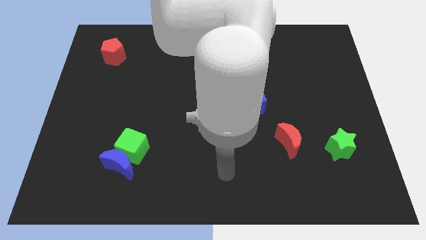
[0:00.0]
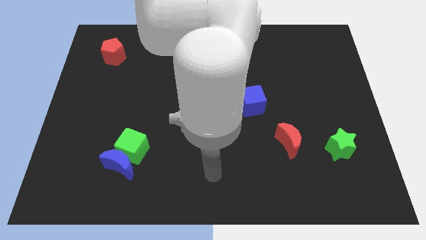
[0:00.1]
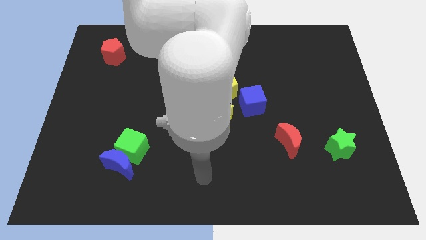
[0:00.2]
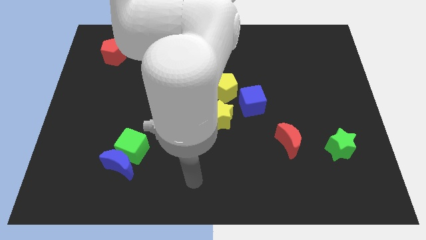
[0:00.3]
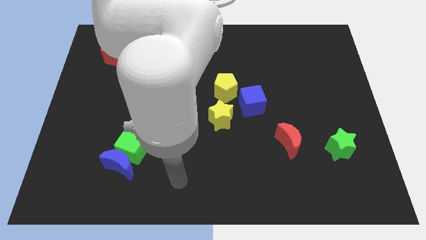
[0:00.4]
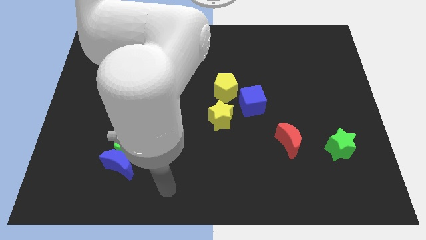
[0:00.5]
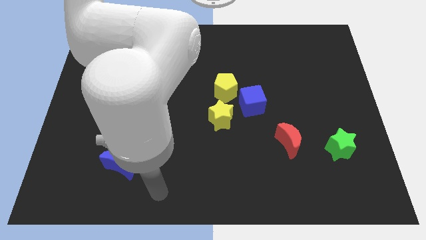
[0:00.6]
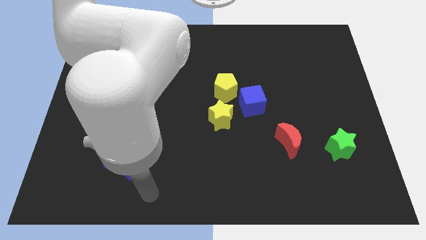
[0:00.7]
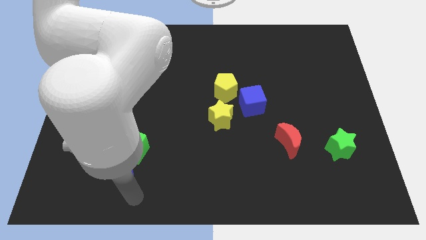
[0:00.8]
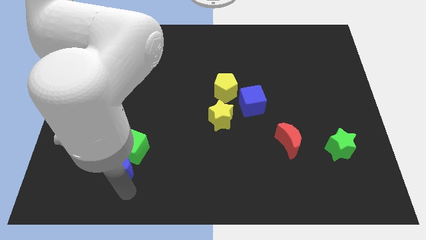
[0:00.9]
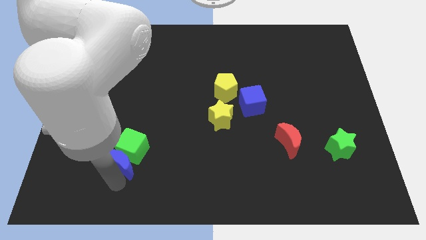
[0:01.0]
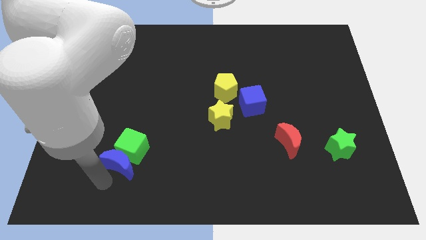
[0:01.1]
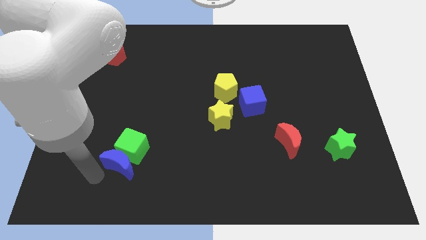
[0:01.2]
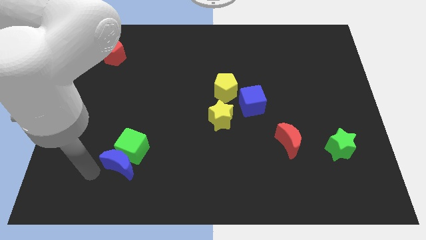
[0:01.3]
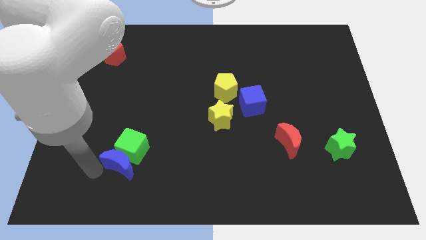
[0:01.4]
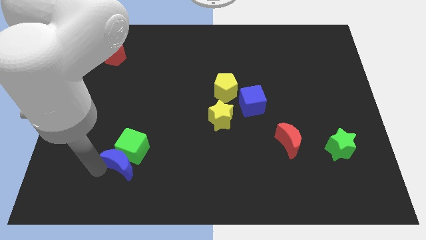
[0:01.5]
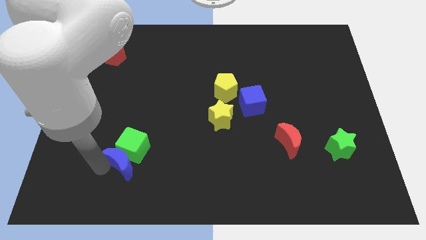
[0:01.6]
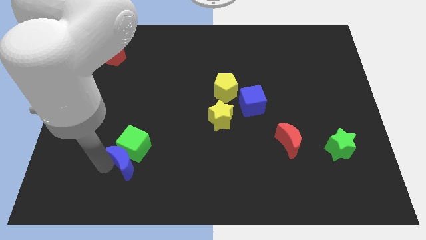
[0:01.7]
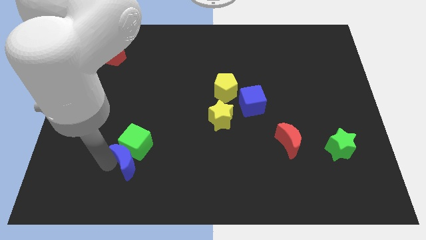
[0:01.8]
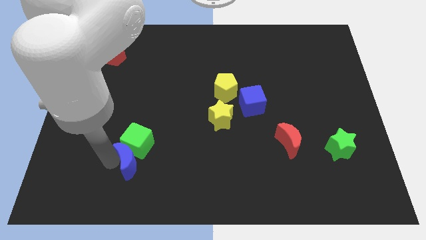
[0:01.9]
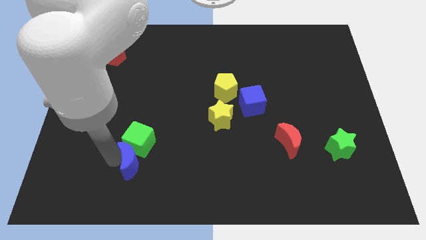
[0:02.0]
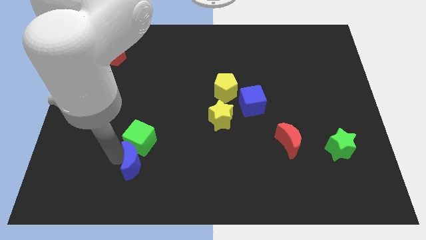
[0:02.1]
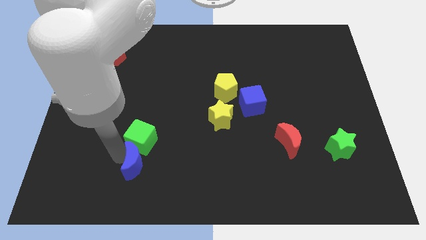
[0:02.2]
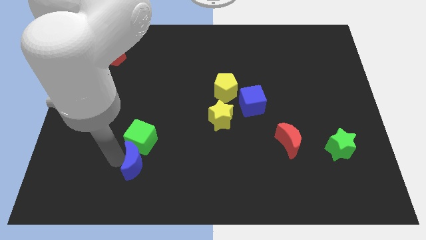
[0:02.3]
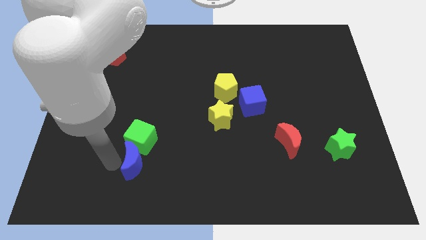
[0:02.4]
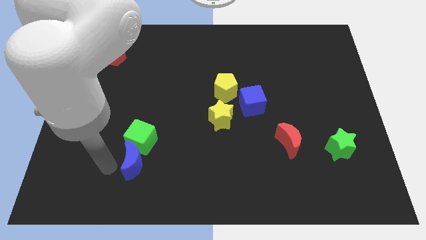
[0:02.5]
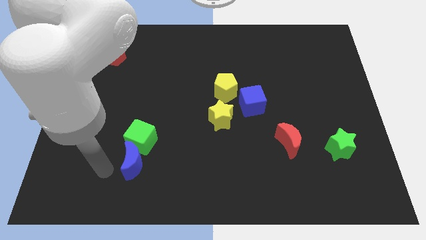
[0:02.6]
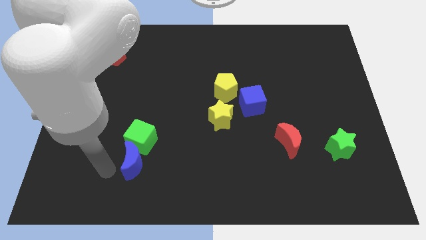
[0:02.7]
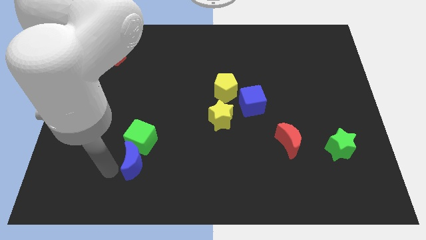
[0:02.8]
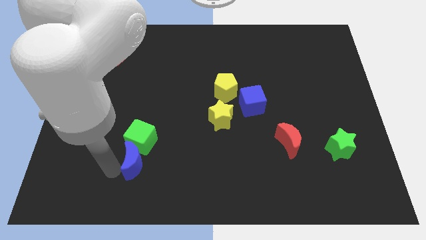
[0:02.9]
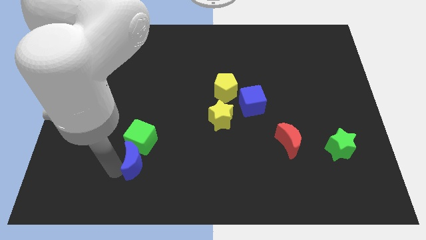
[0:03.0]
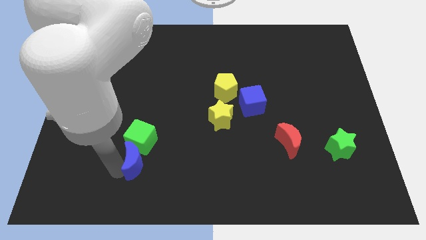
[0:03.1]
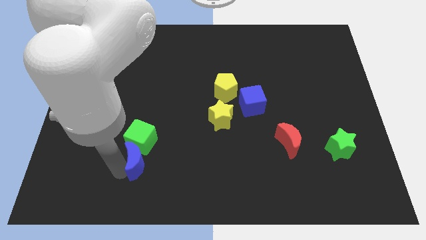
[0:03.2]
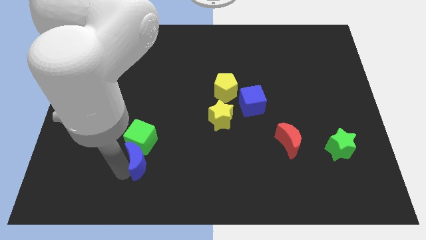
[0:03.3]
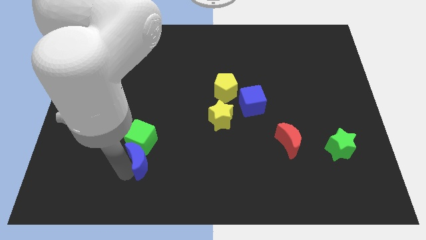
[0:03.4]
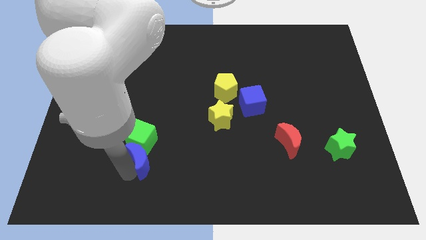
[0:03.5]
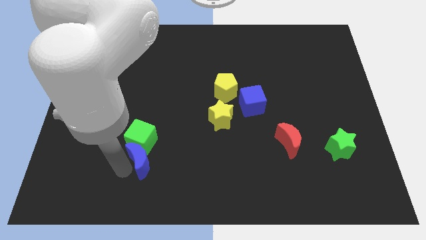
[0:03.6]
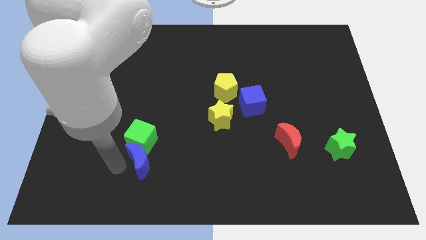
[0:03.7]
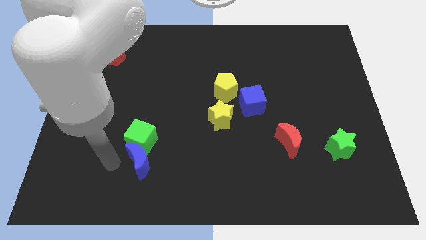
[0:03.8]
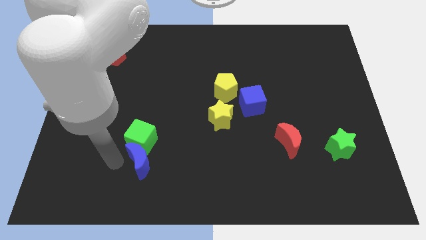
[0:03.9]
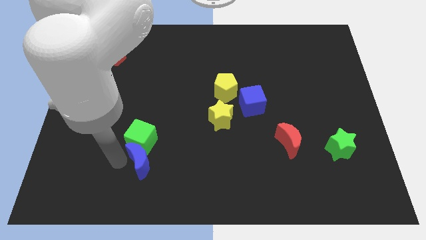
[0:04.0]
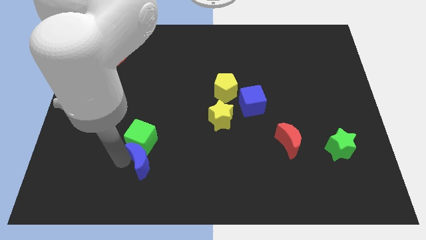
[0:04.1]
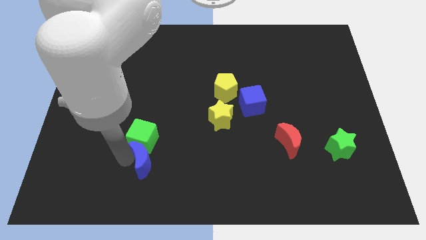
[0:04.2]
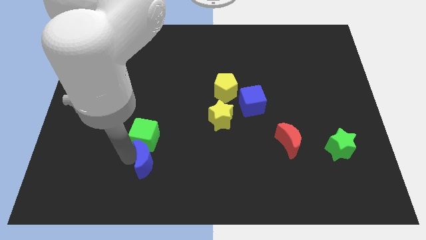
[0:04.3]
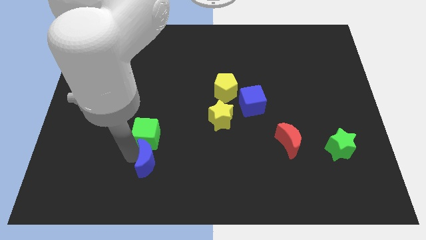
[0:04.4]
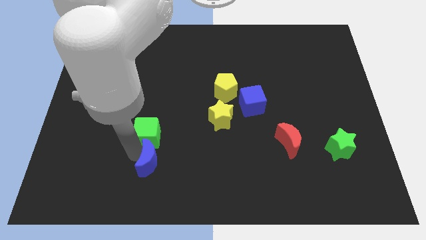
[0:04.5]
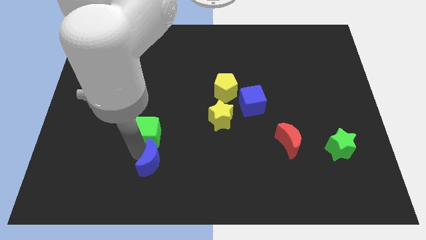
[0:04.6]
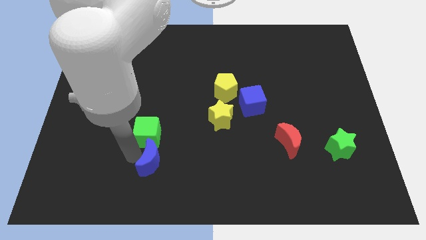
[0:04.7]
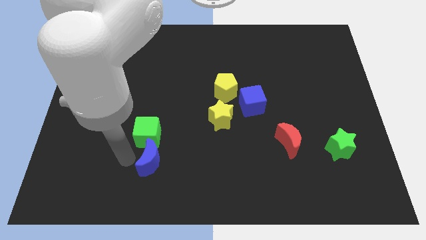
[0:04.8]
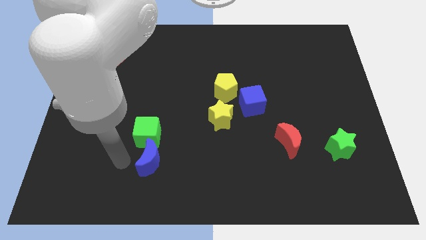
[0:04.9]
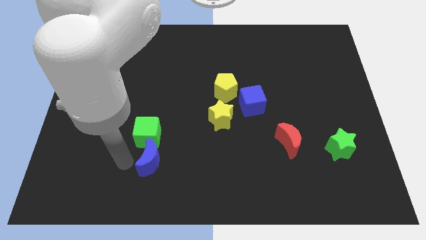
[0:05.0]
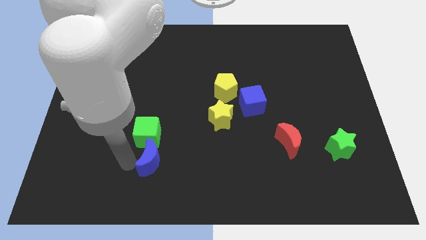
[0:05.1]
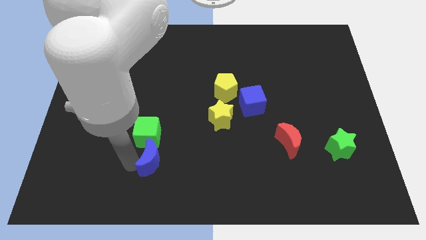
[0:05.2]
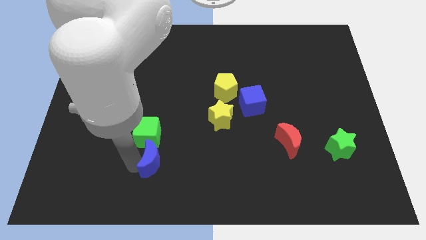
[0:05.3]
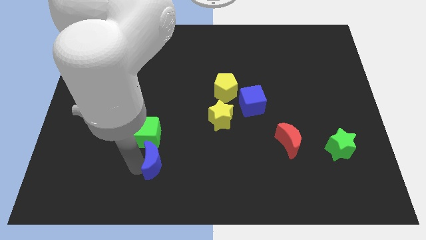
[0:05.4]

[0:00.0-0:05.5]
push the blue moon slightly right

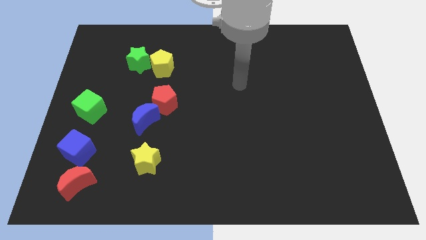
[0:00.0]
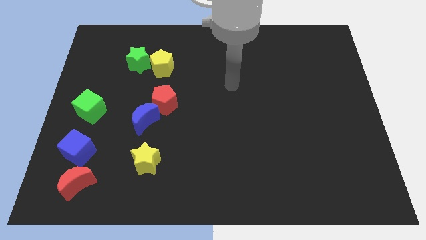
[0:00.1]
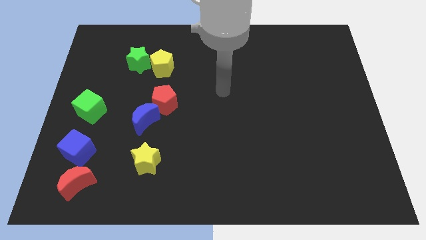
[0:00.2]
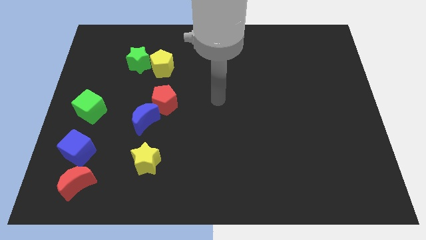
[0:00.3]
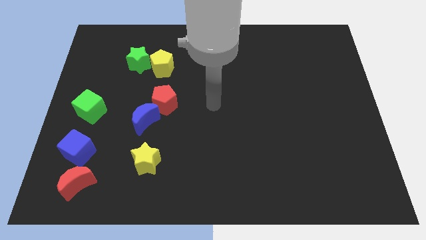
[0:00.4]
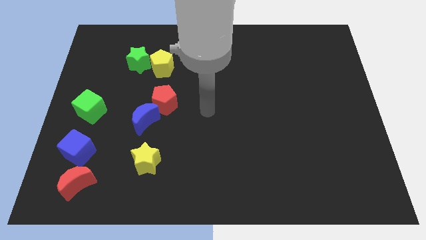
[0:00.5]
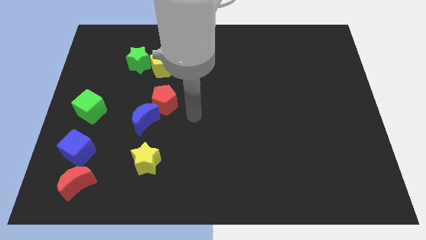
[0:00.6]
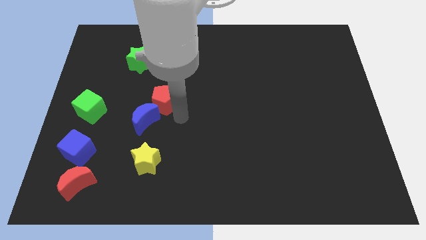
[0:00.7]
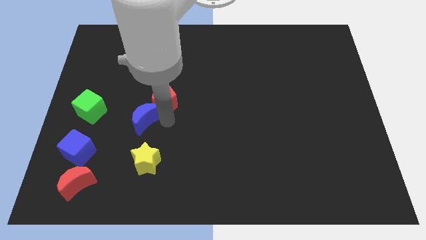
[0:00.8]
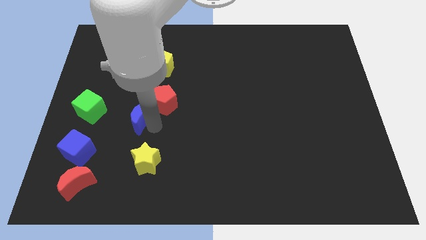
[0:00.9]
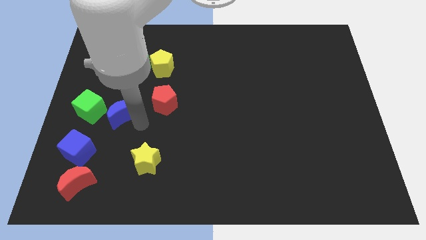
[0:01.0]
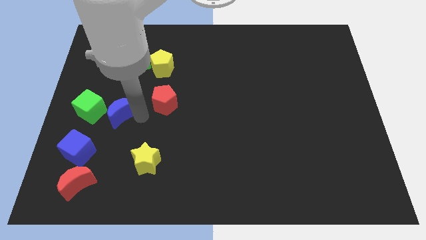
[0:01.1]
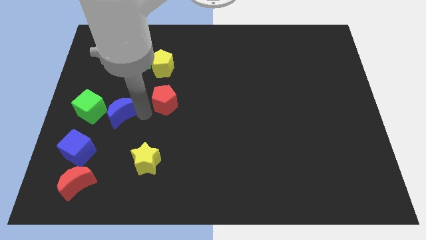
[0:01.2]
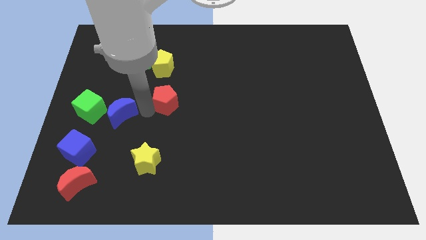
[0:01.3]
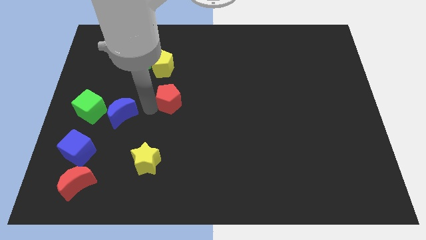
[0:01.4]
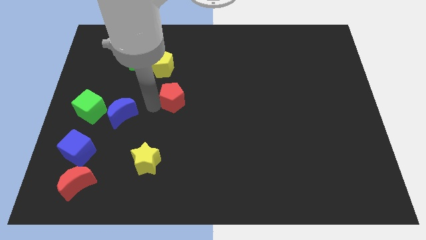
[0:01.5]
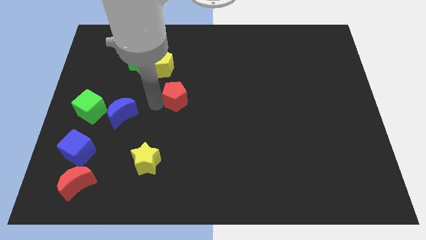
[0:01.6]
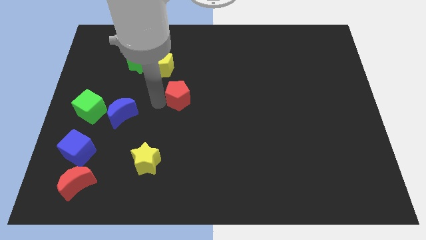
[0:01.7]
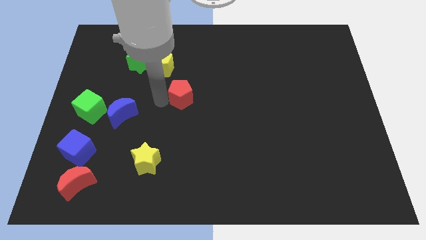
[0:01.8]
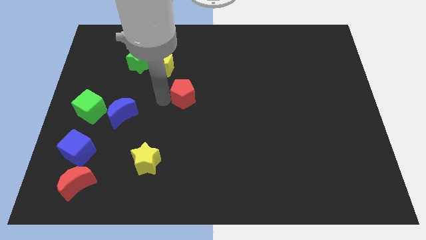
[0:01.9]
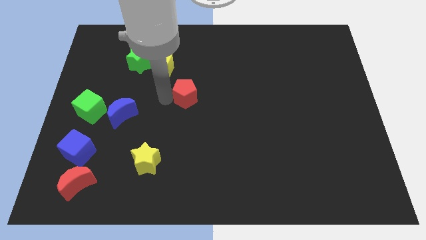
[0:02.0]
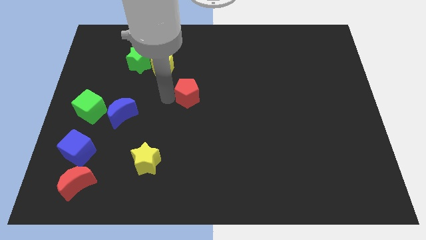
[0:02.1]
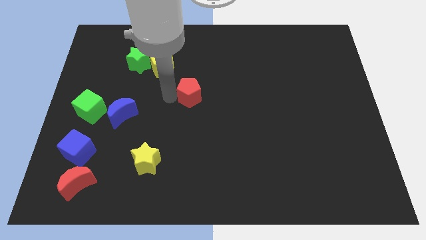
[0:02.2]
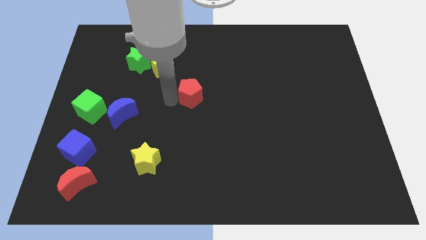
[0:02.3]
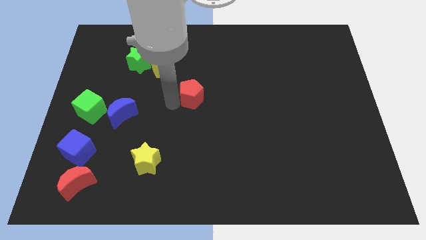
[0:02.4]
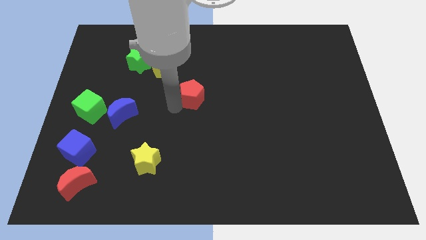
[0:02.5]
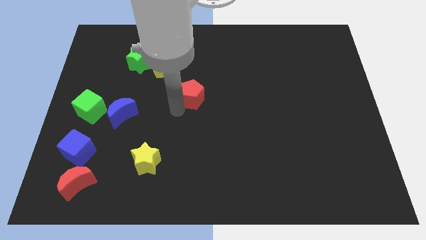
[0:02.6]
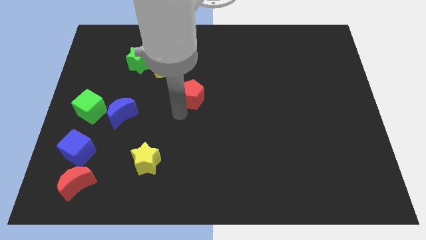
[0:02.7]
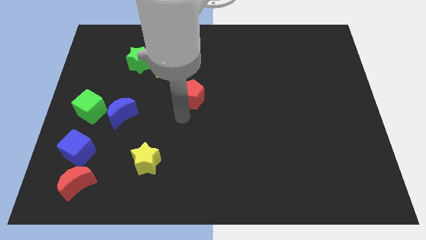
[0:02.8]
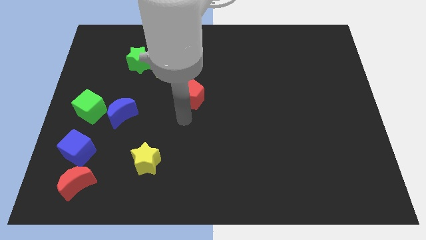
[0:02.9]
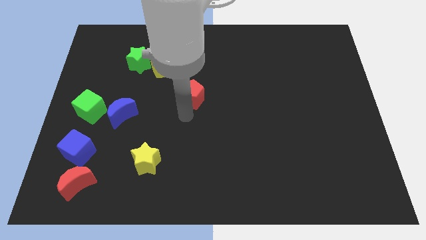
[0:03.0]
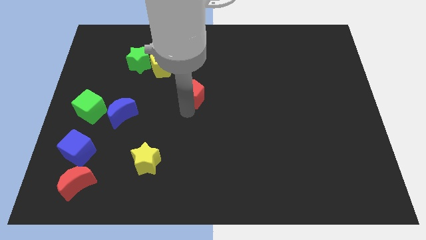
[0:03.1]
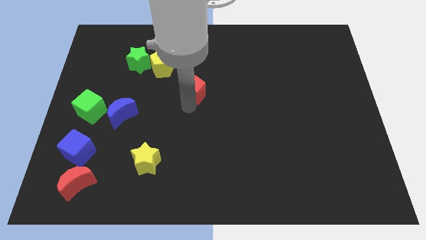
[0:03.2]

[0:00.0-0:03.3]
push the red pentagon upwards and right diagonally somewhat
